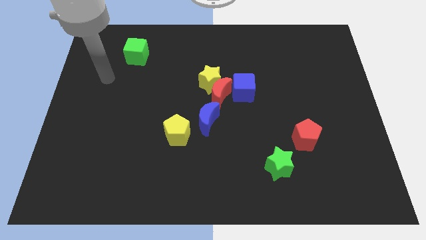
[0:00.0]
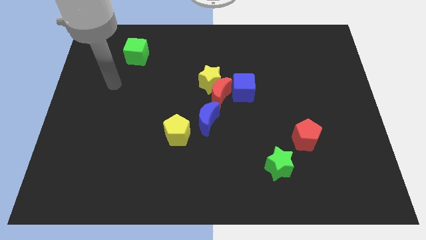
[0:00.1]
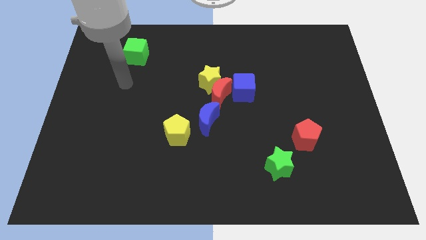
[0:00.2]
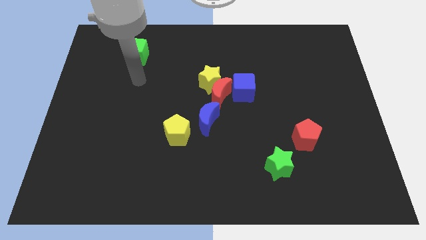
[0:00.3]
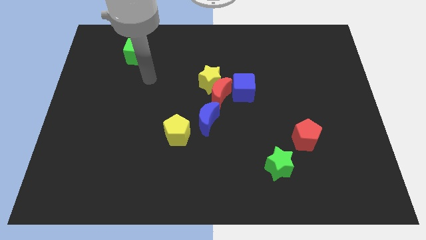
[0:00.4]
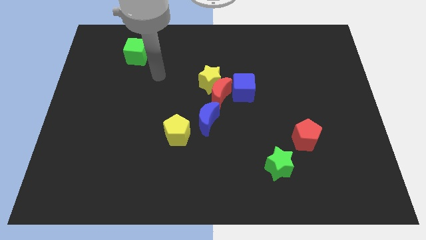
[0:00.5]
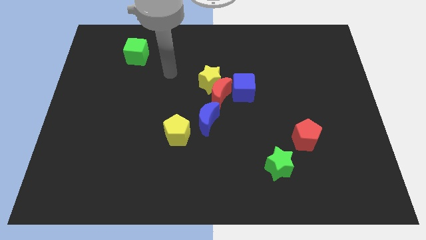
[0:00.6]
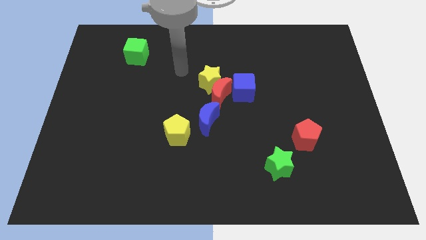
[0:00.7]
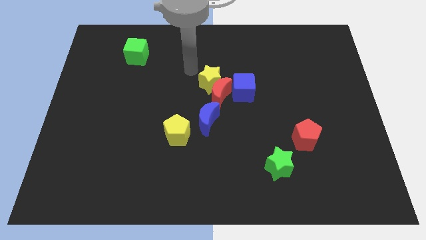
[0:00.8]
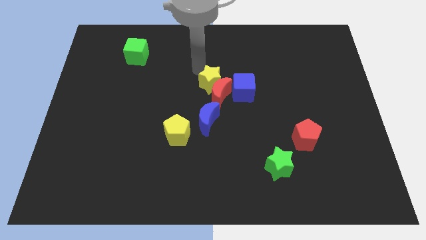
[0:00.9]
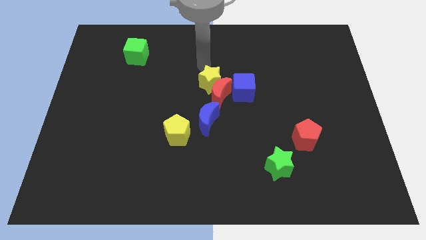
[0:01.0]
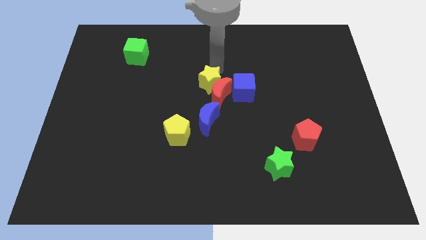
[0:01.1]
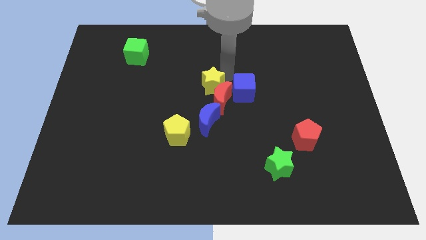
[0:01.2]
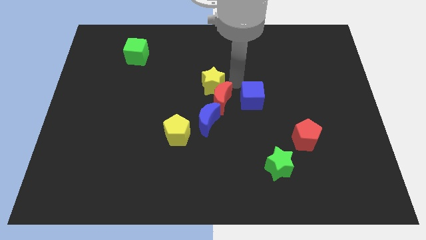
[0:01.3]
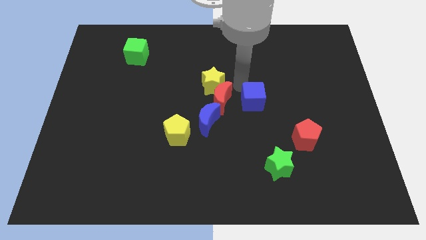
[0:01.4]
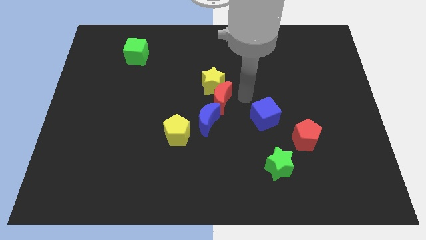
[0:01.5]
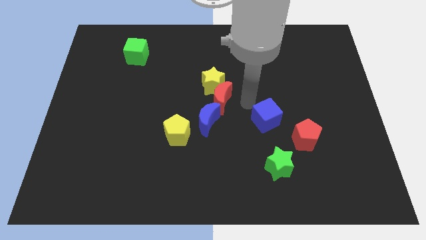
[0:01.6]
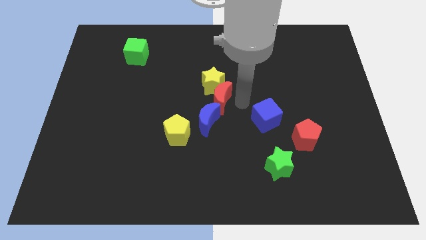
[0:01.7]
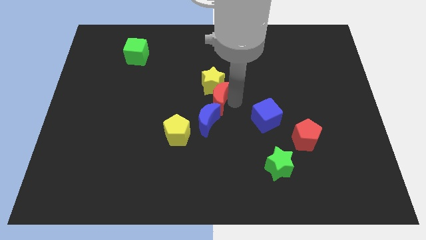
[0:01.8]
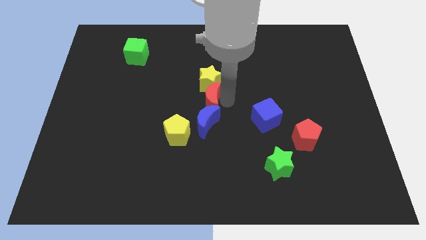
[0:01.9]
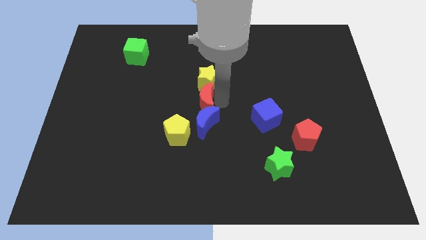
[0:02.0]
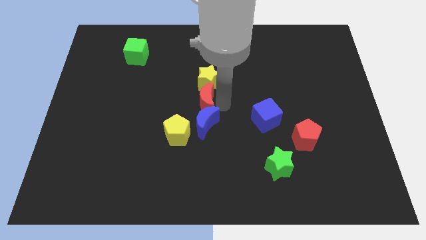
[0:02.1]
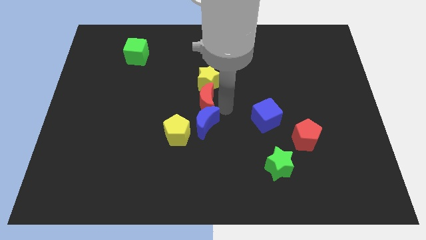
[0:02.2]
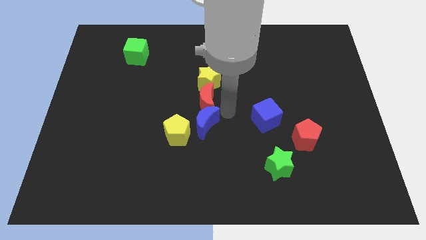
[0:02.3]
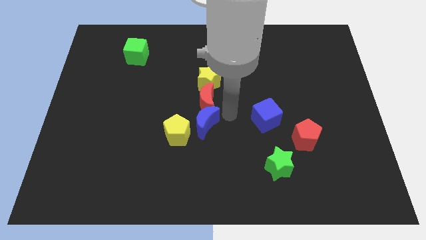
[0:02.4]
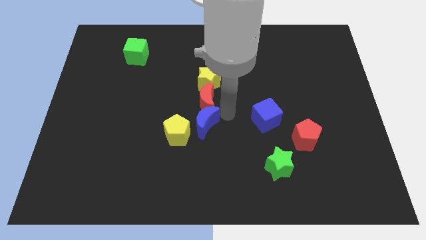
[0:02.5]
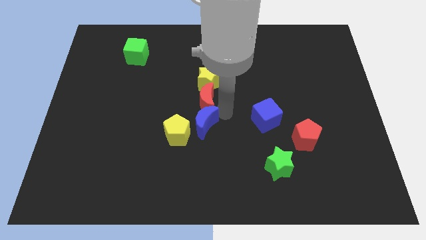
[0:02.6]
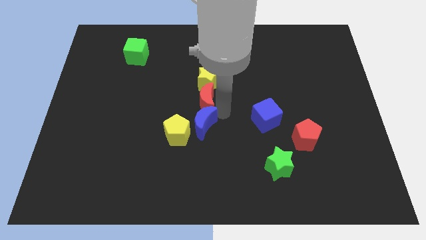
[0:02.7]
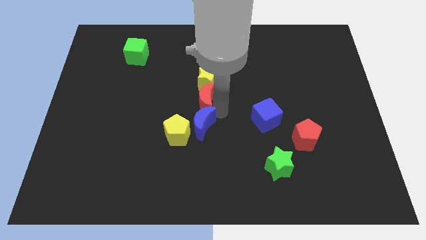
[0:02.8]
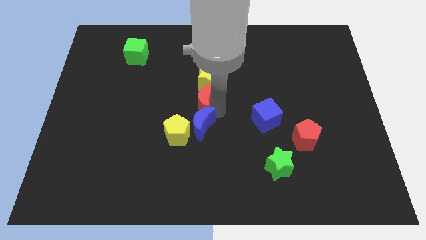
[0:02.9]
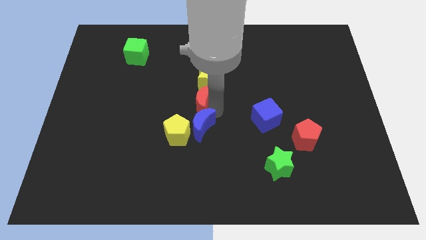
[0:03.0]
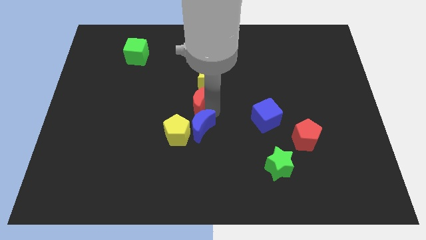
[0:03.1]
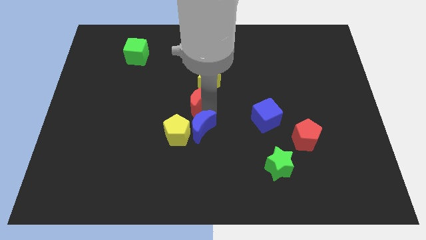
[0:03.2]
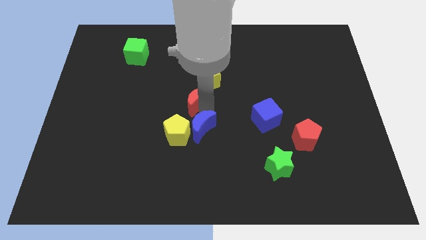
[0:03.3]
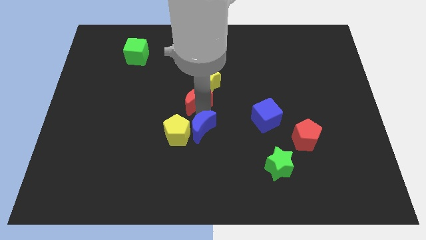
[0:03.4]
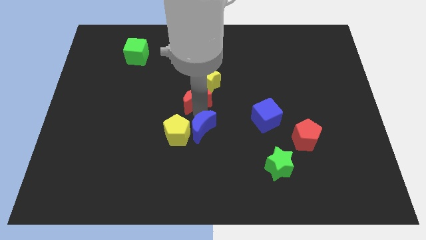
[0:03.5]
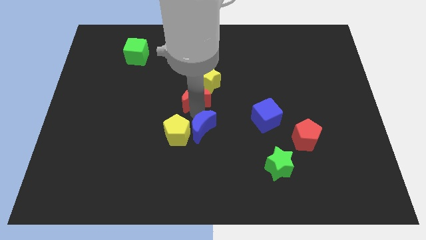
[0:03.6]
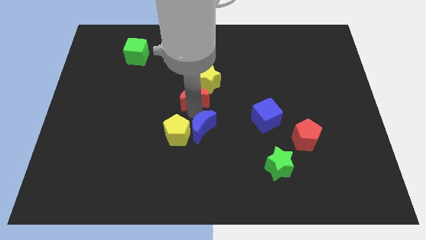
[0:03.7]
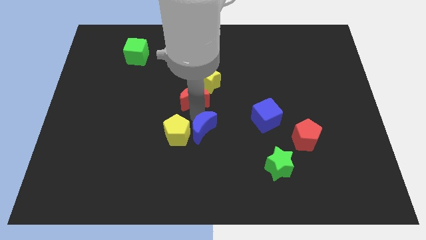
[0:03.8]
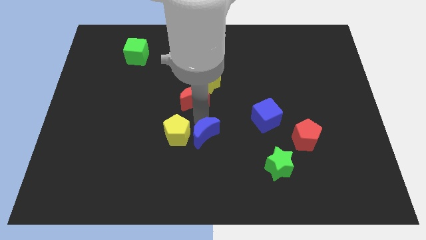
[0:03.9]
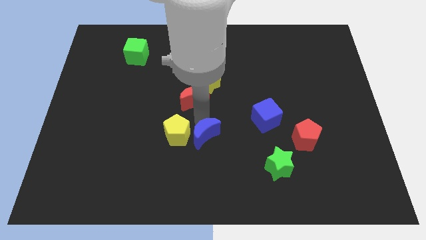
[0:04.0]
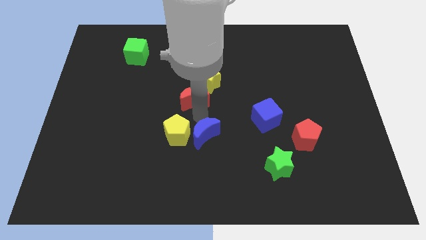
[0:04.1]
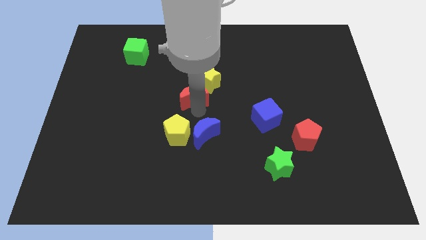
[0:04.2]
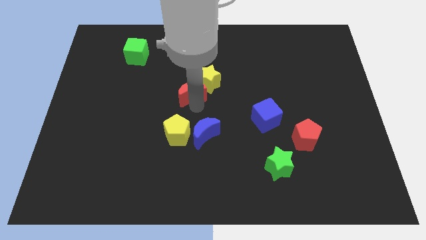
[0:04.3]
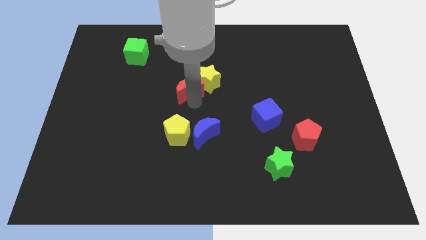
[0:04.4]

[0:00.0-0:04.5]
separate the red moon from the yellow star, blue cube, and blue moon

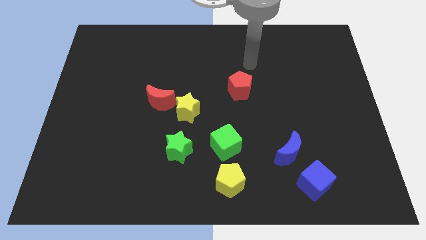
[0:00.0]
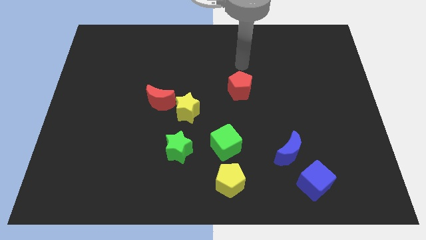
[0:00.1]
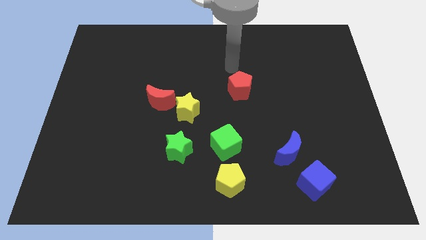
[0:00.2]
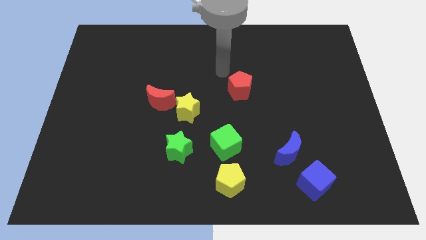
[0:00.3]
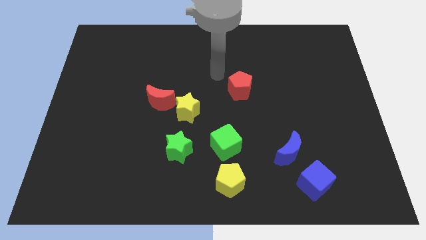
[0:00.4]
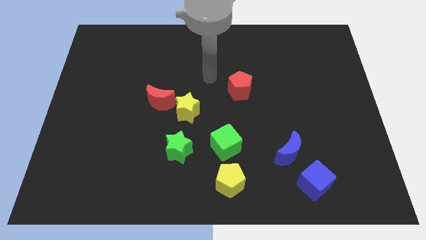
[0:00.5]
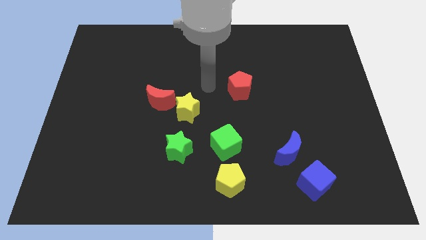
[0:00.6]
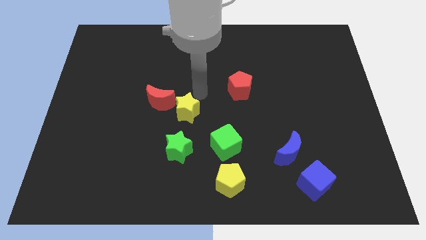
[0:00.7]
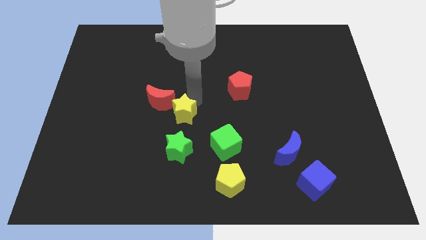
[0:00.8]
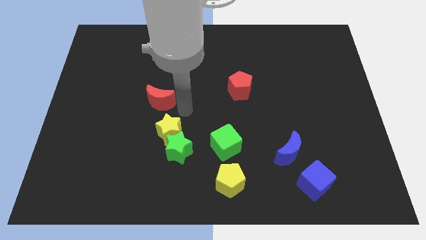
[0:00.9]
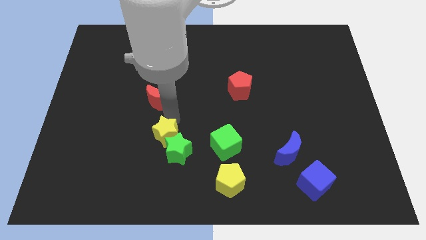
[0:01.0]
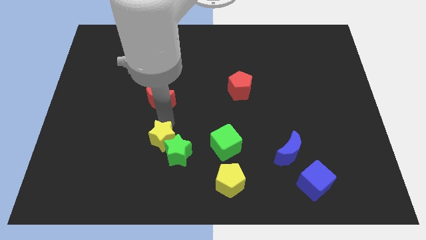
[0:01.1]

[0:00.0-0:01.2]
separate the red moon from the yellow star

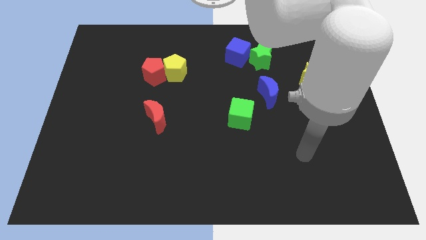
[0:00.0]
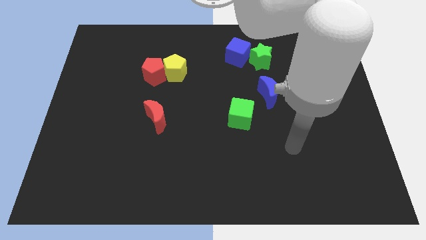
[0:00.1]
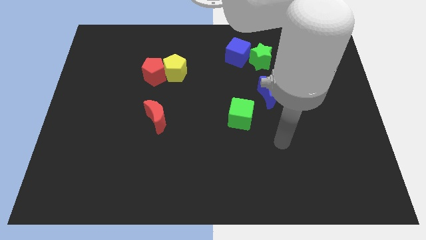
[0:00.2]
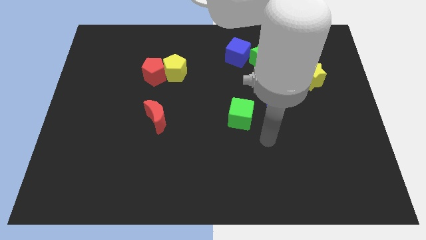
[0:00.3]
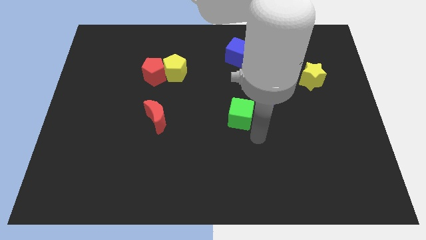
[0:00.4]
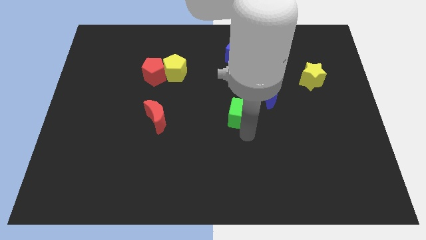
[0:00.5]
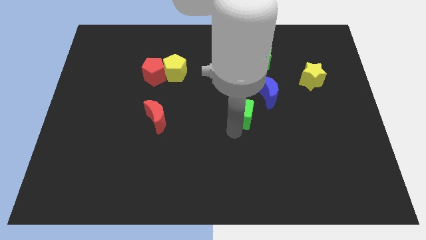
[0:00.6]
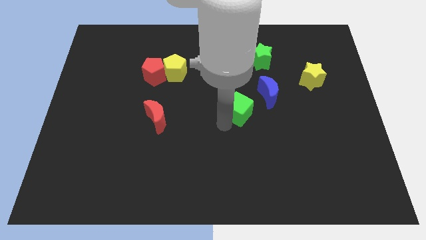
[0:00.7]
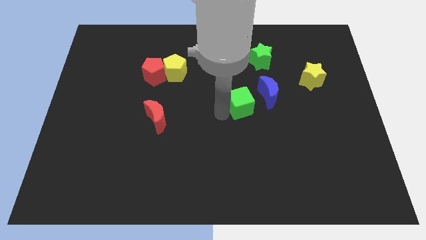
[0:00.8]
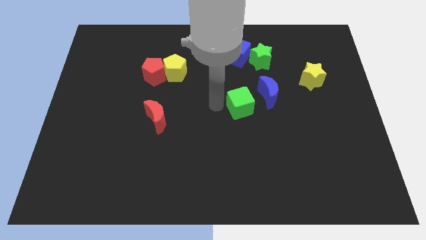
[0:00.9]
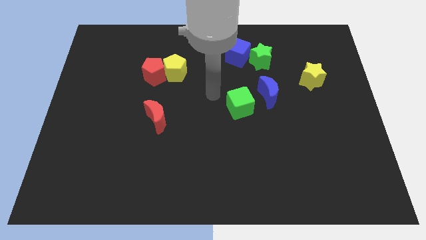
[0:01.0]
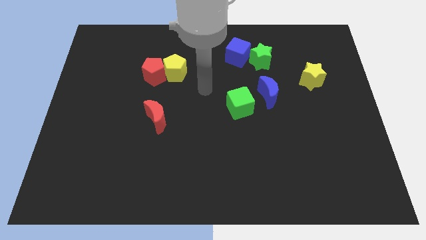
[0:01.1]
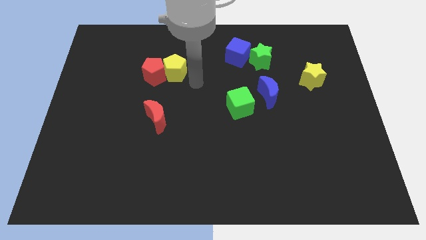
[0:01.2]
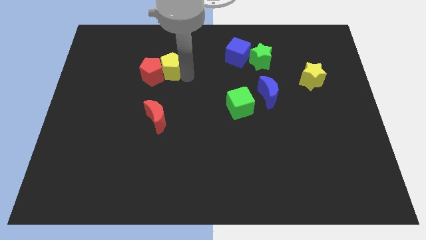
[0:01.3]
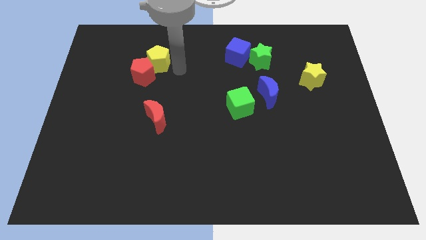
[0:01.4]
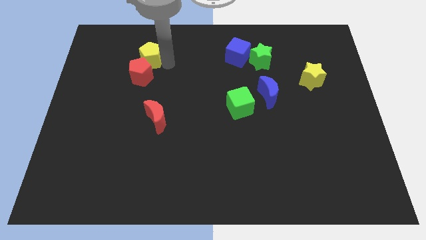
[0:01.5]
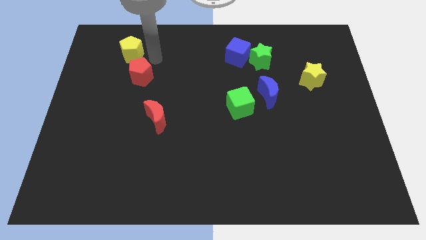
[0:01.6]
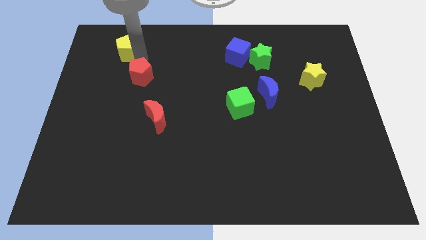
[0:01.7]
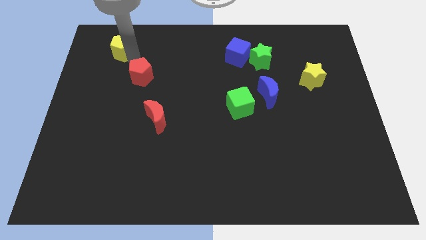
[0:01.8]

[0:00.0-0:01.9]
separate the red pentagon from the yellow pentagon

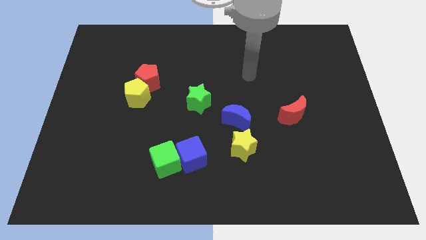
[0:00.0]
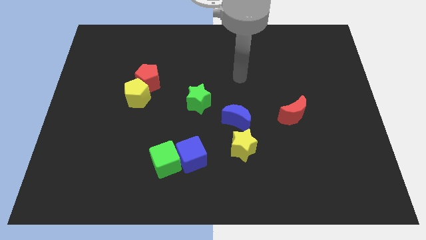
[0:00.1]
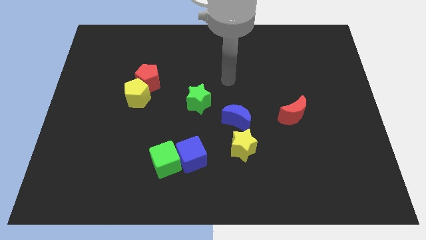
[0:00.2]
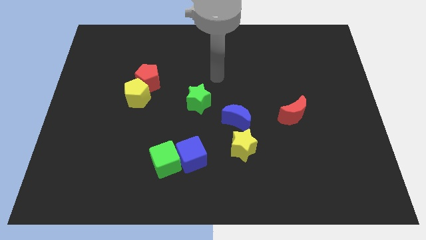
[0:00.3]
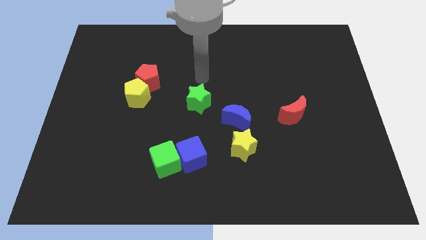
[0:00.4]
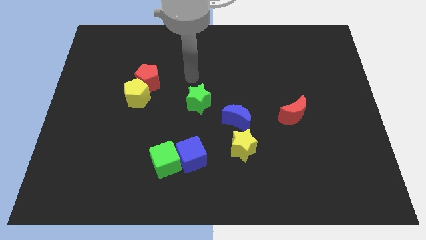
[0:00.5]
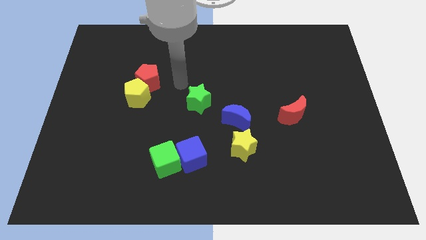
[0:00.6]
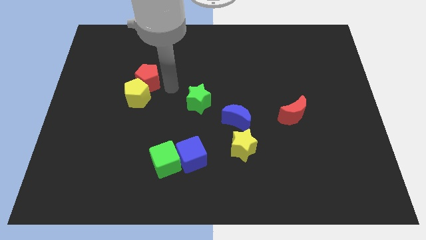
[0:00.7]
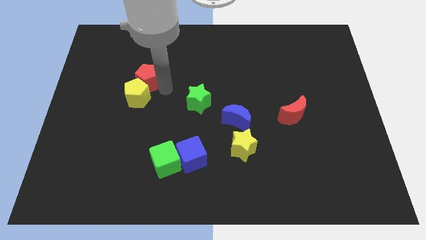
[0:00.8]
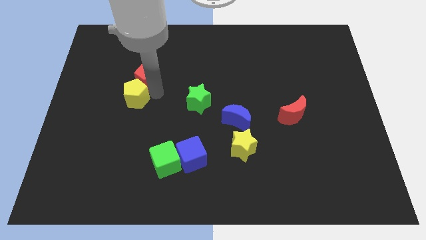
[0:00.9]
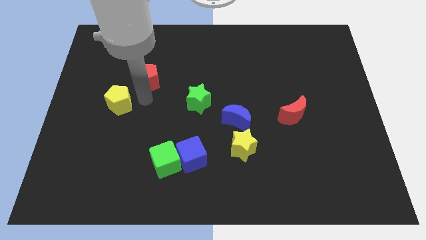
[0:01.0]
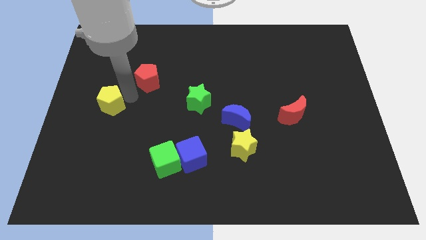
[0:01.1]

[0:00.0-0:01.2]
pull the red pentagon apart from the yellow pentagon

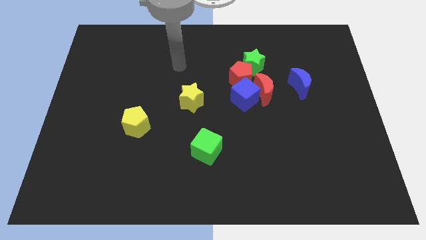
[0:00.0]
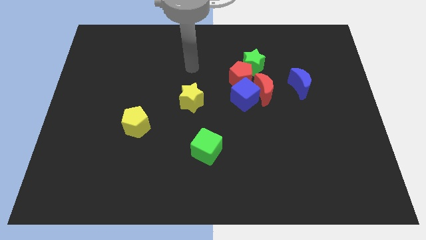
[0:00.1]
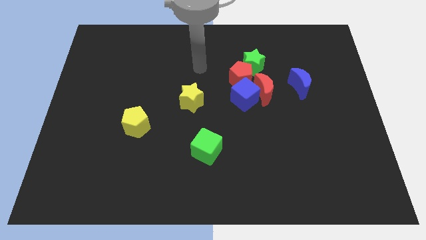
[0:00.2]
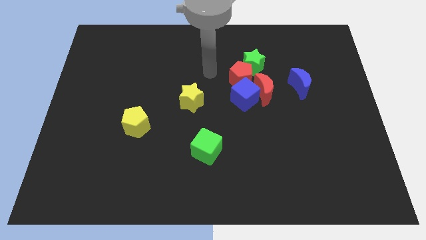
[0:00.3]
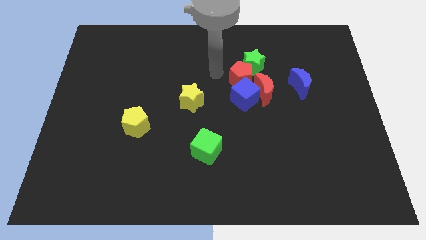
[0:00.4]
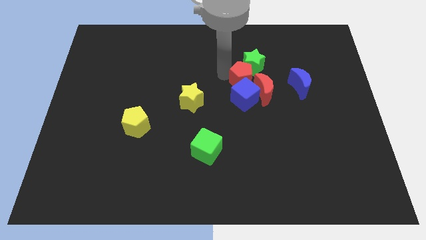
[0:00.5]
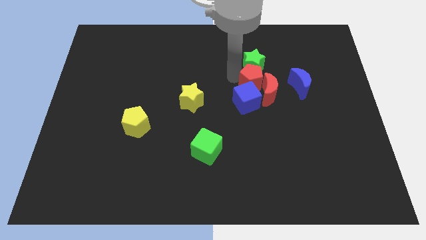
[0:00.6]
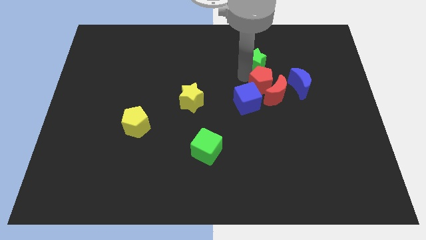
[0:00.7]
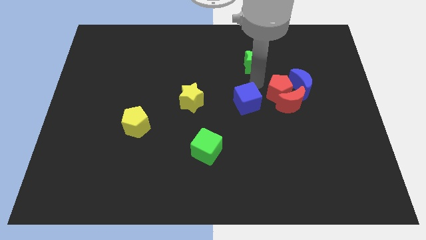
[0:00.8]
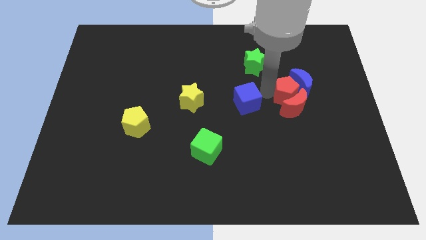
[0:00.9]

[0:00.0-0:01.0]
move the blue cube away from the red moon and red pentagon
